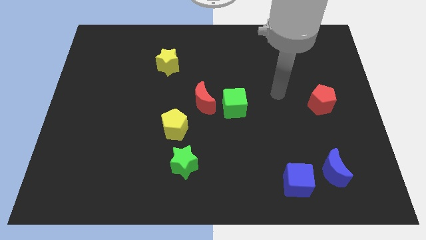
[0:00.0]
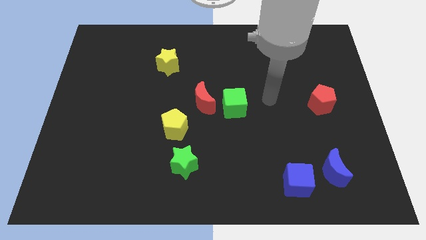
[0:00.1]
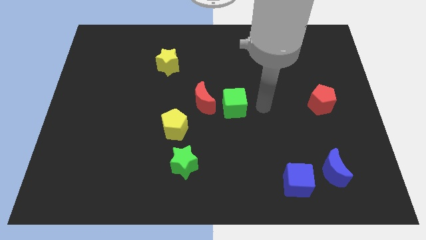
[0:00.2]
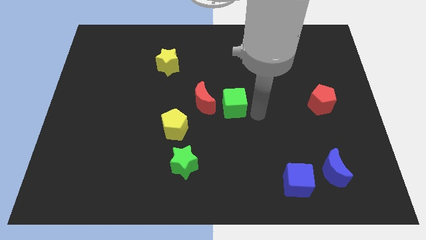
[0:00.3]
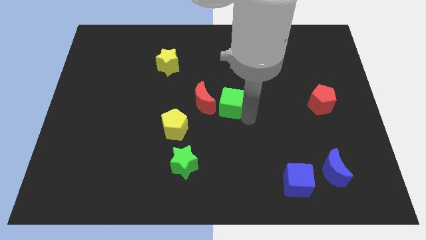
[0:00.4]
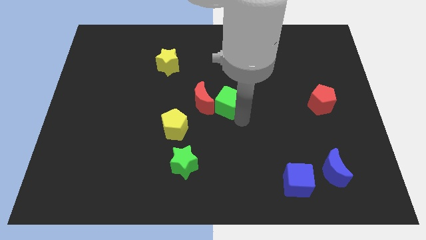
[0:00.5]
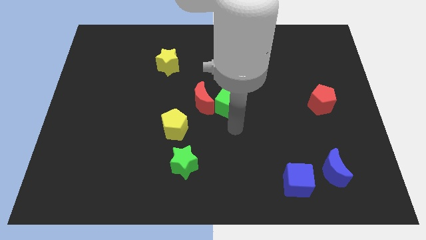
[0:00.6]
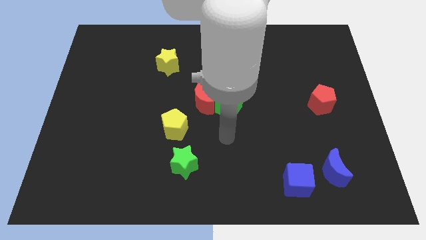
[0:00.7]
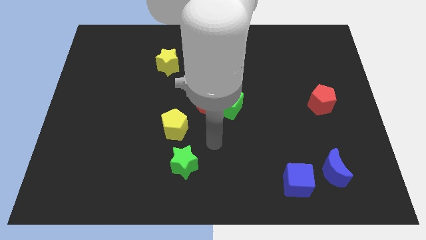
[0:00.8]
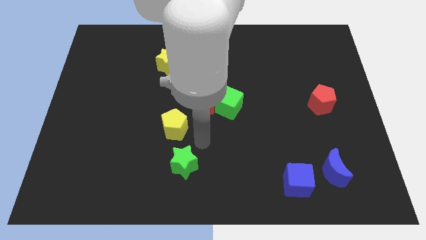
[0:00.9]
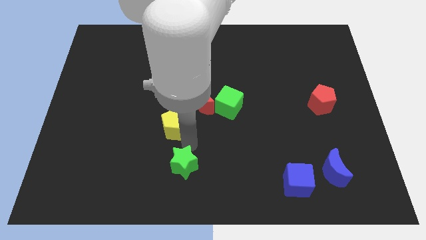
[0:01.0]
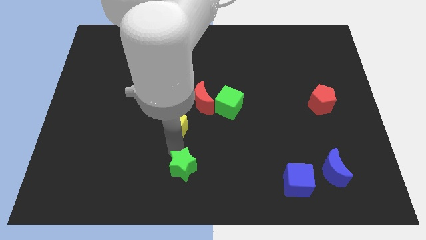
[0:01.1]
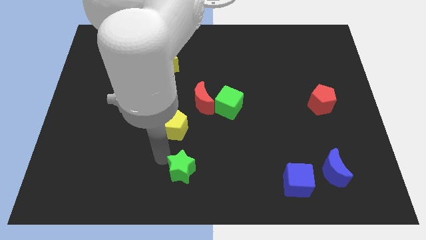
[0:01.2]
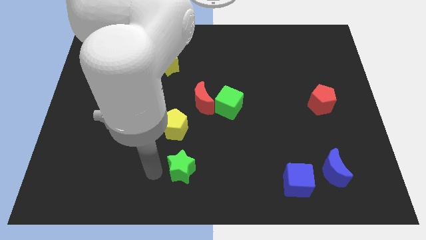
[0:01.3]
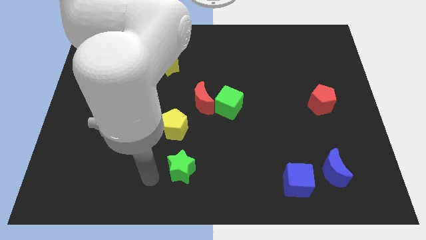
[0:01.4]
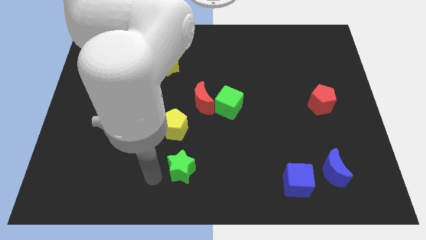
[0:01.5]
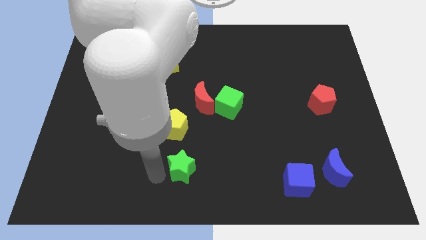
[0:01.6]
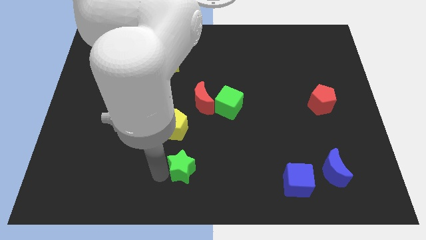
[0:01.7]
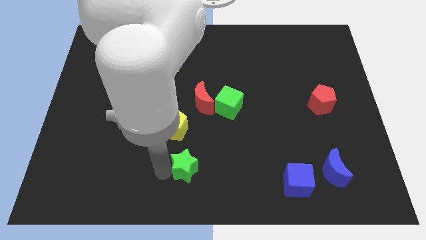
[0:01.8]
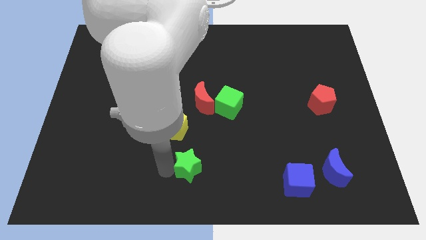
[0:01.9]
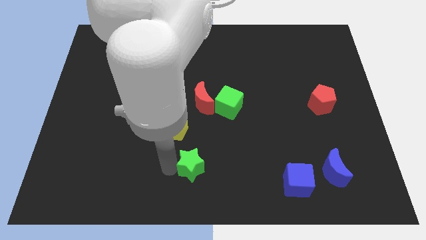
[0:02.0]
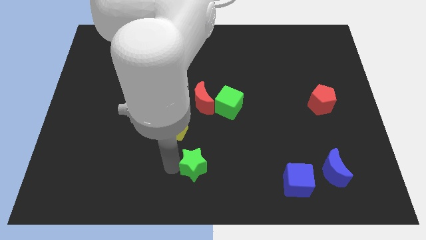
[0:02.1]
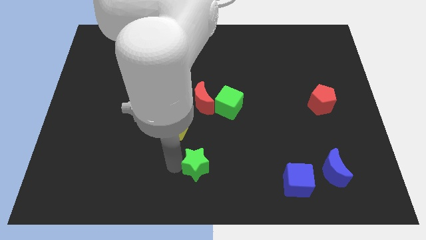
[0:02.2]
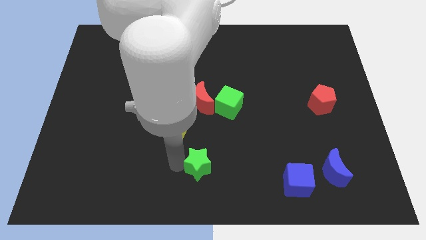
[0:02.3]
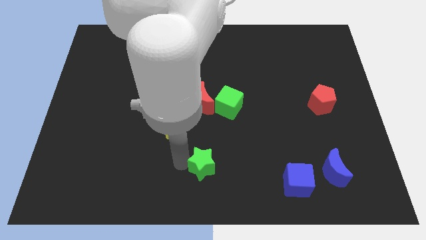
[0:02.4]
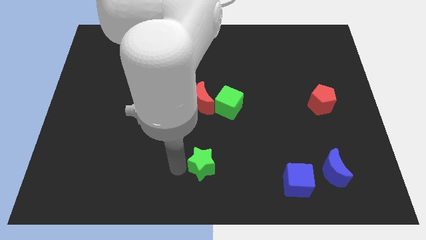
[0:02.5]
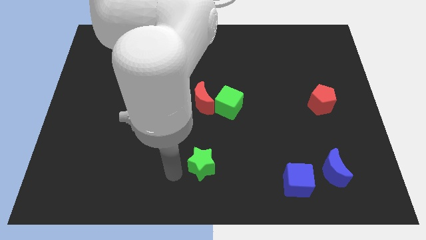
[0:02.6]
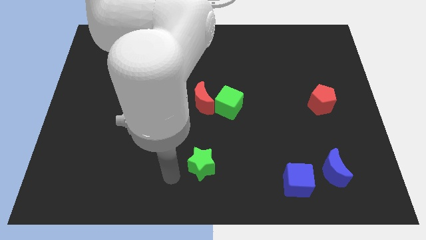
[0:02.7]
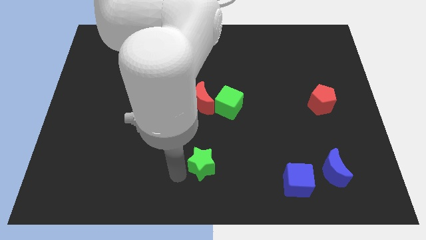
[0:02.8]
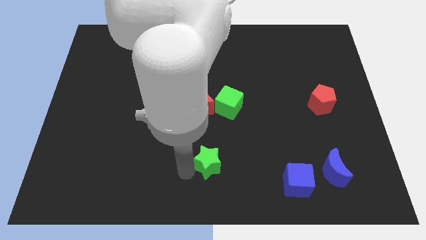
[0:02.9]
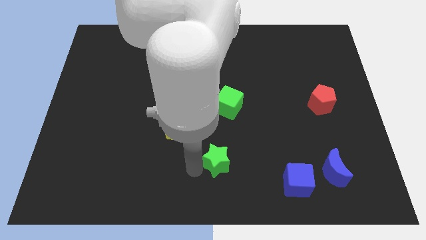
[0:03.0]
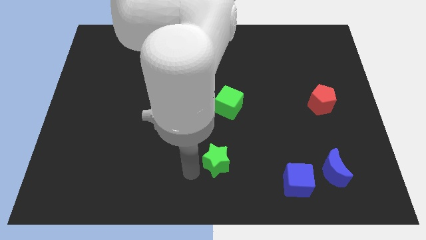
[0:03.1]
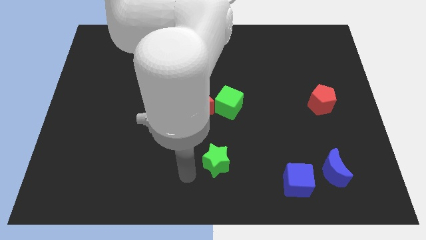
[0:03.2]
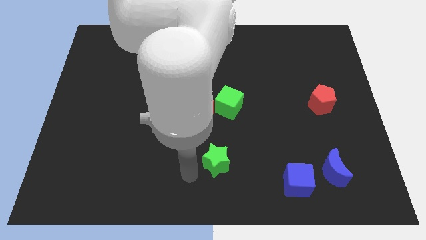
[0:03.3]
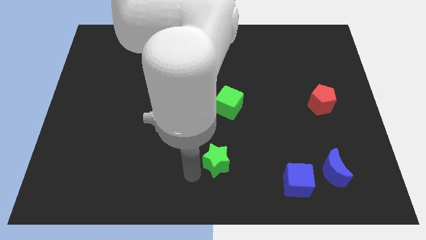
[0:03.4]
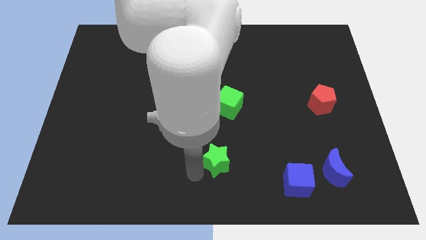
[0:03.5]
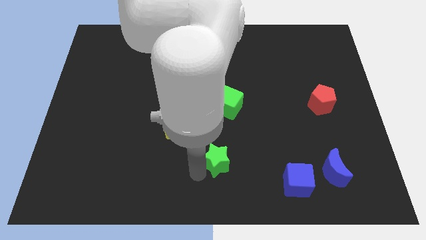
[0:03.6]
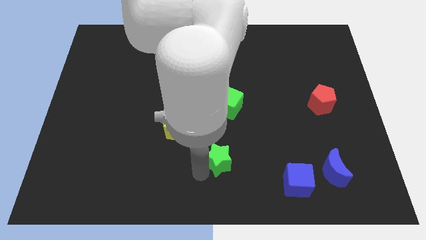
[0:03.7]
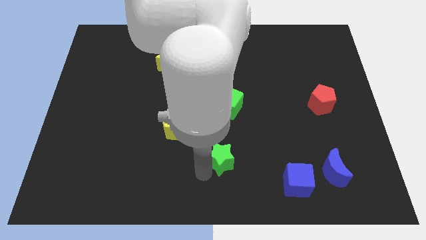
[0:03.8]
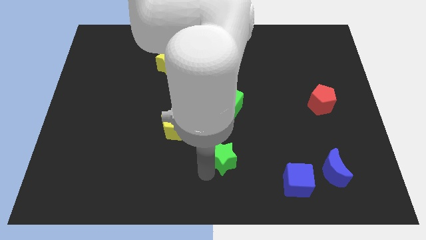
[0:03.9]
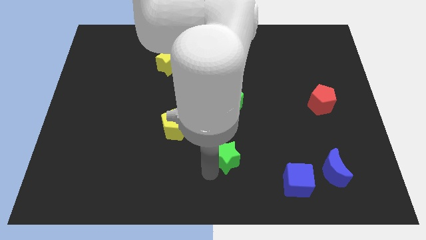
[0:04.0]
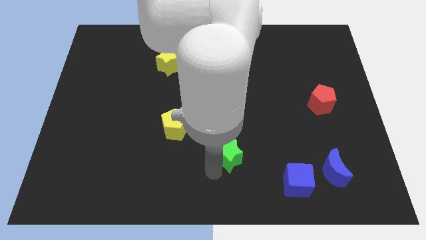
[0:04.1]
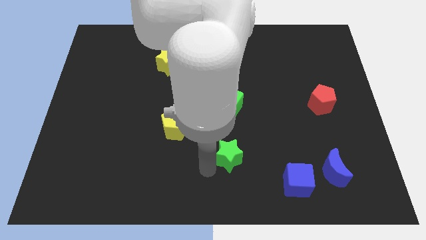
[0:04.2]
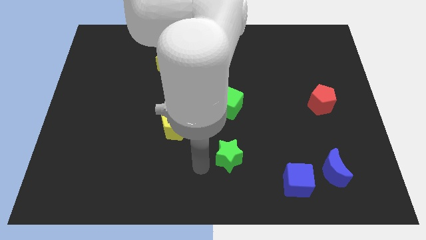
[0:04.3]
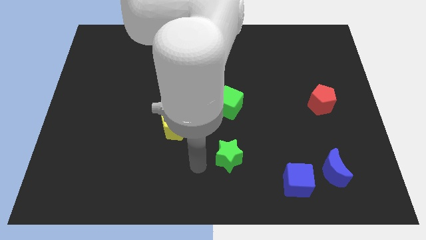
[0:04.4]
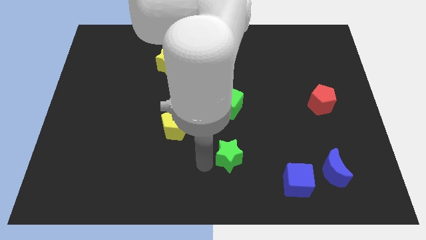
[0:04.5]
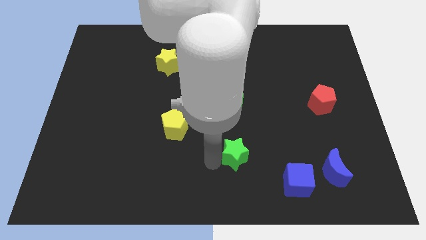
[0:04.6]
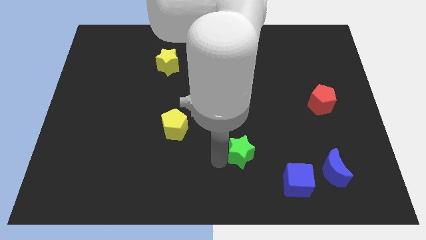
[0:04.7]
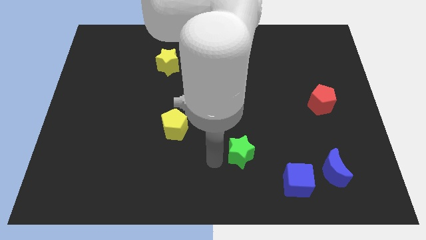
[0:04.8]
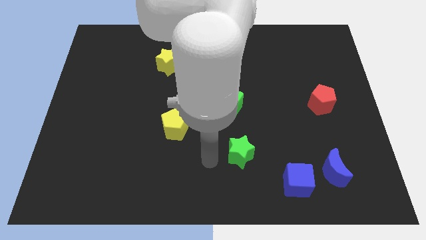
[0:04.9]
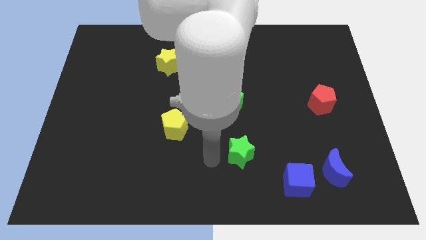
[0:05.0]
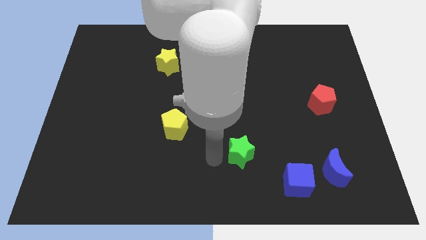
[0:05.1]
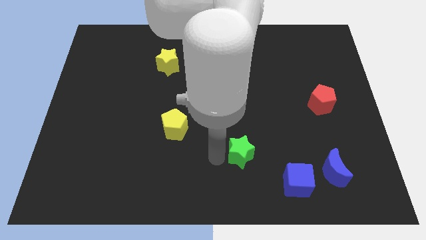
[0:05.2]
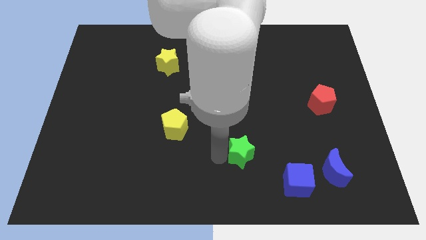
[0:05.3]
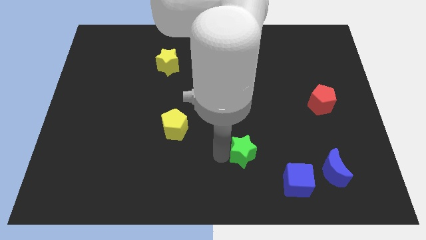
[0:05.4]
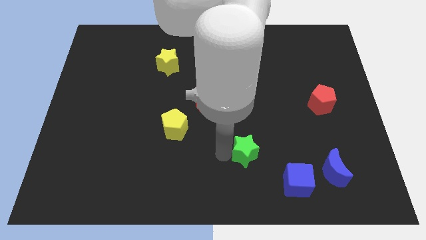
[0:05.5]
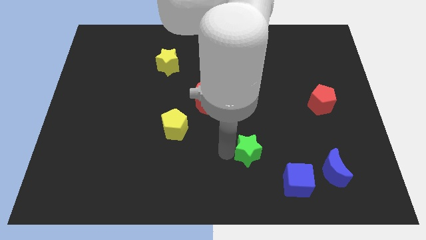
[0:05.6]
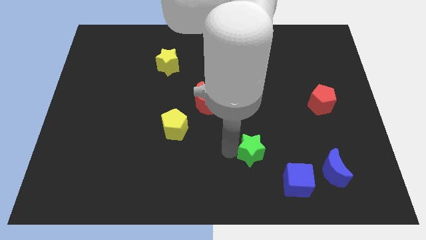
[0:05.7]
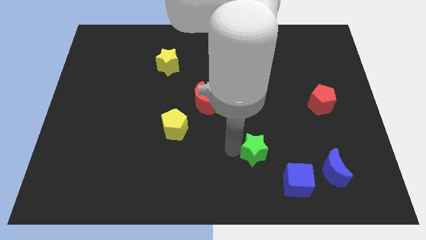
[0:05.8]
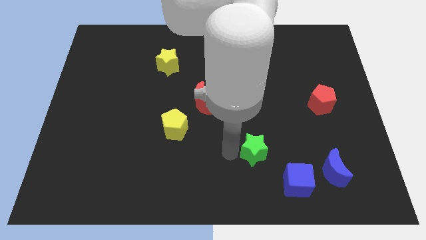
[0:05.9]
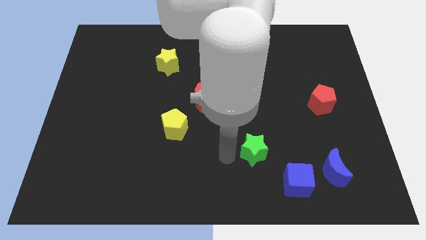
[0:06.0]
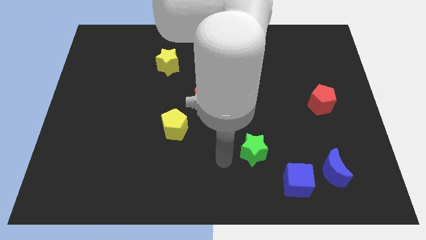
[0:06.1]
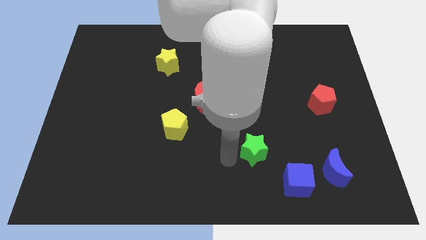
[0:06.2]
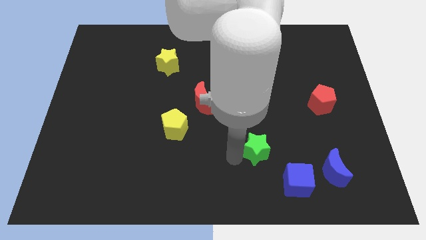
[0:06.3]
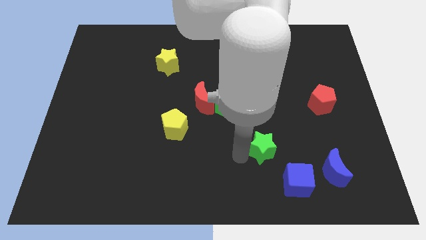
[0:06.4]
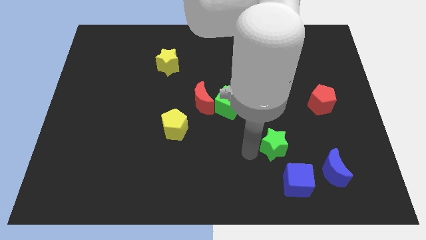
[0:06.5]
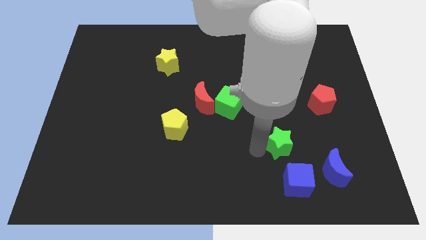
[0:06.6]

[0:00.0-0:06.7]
push the green star diagonally up and to the left of the blue moon
